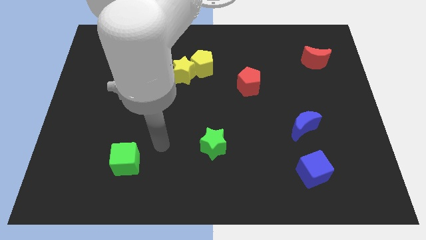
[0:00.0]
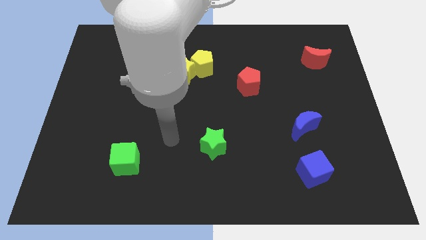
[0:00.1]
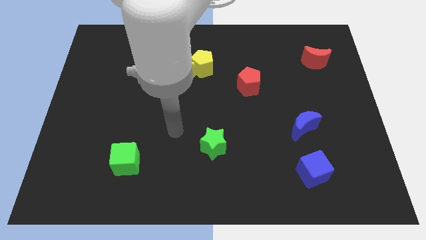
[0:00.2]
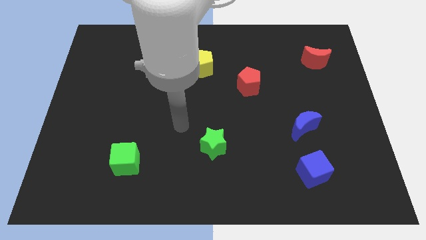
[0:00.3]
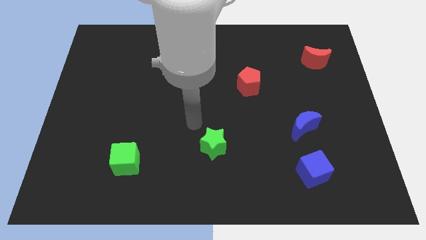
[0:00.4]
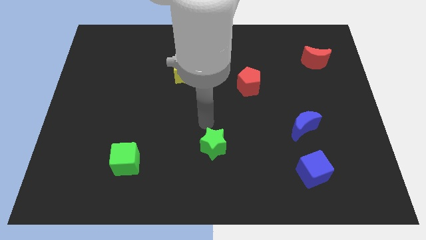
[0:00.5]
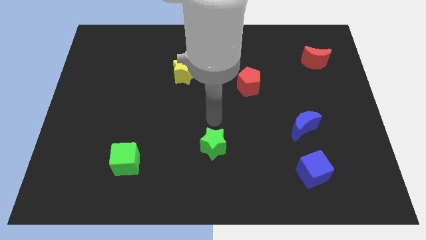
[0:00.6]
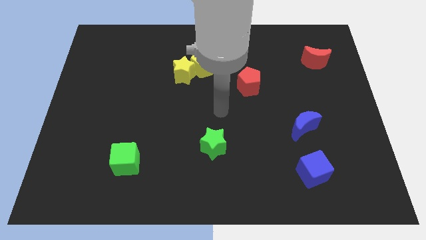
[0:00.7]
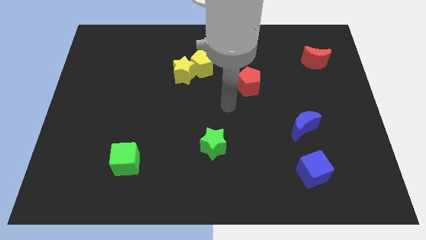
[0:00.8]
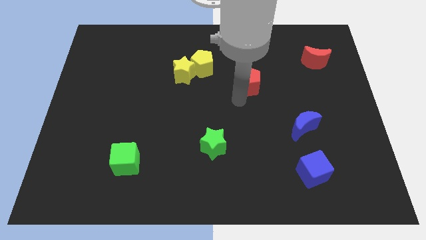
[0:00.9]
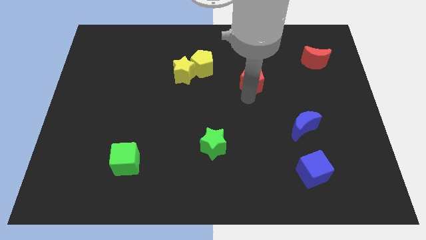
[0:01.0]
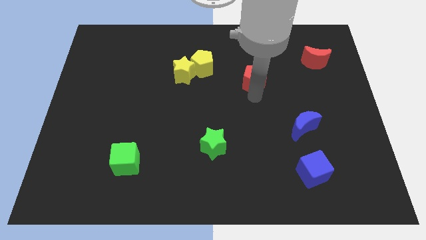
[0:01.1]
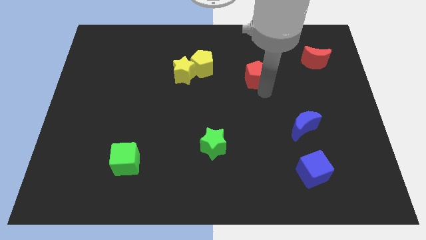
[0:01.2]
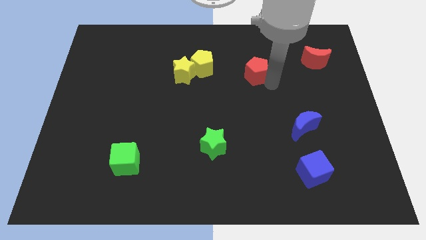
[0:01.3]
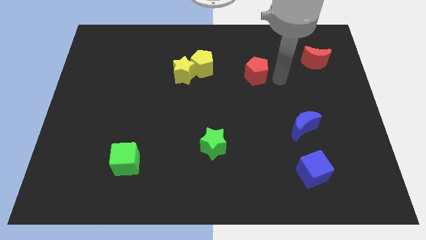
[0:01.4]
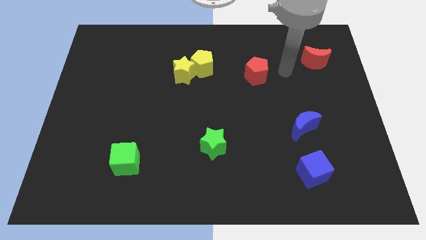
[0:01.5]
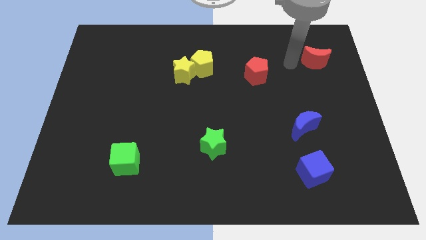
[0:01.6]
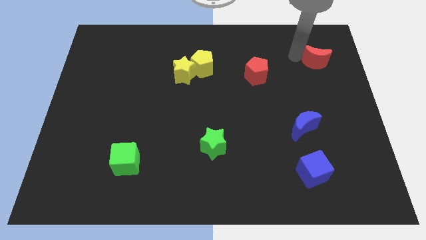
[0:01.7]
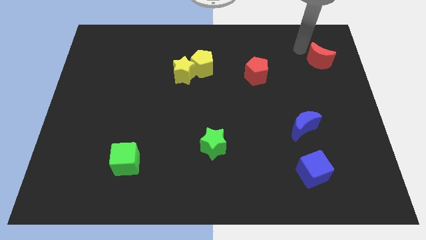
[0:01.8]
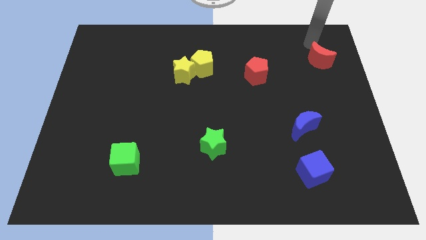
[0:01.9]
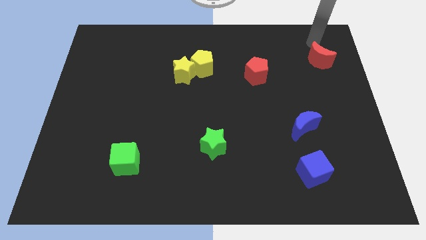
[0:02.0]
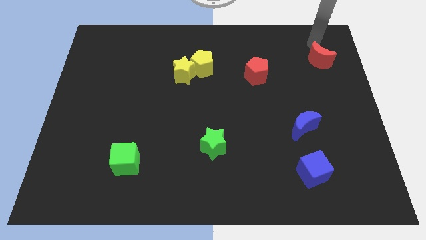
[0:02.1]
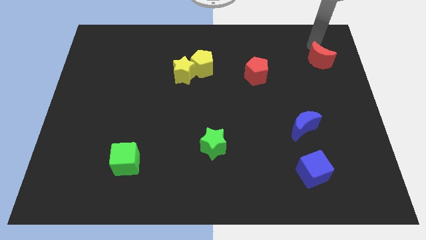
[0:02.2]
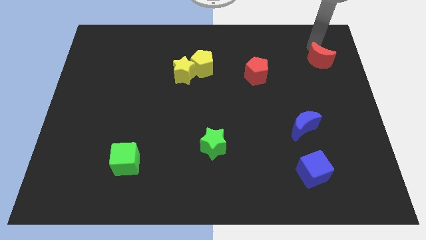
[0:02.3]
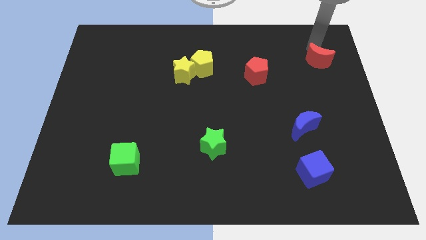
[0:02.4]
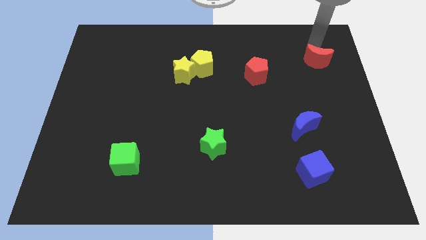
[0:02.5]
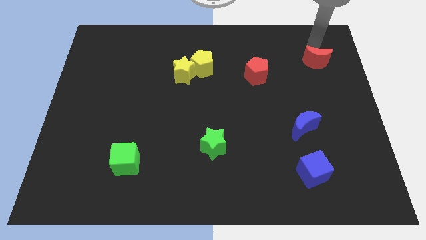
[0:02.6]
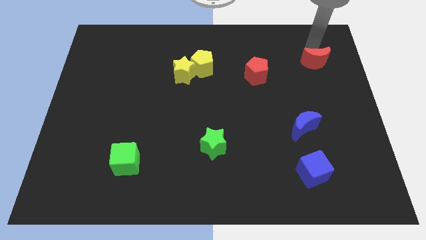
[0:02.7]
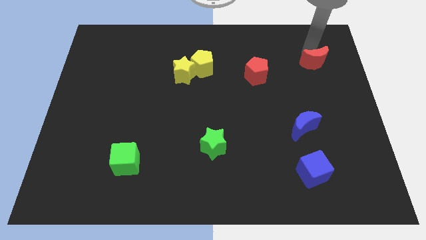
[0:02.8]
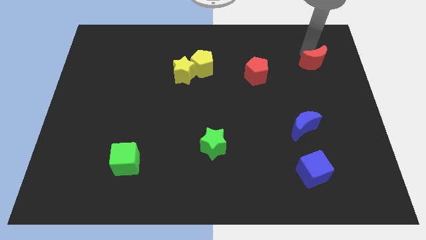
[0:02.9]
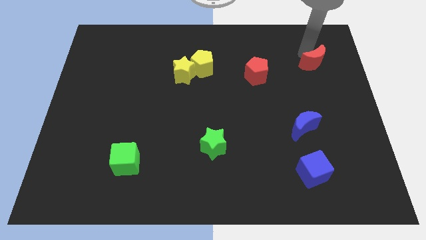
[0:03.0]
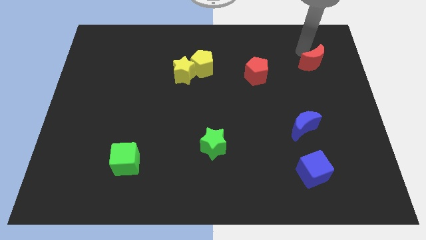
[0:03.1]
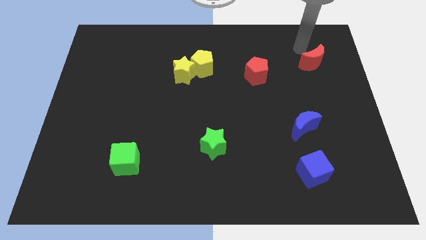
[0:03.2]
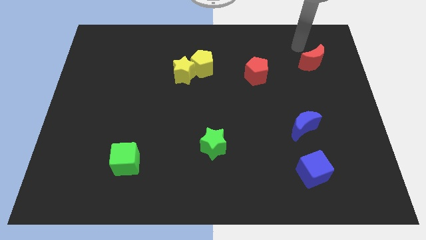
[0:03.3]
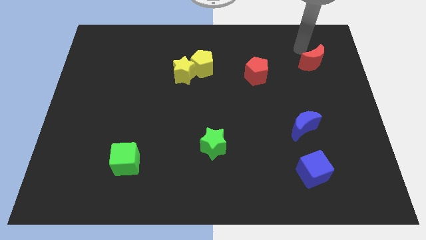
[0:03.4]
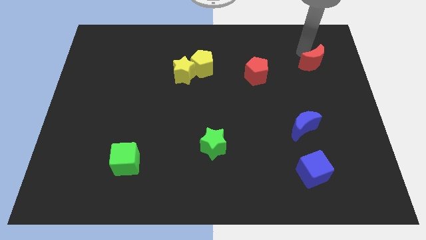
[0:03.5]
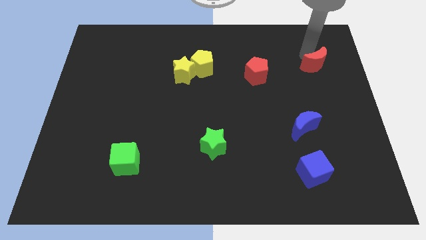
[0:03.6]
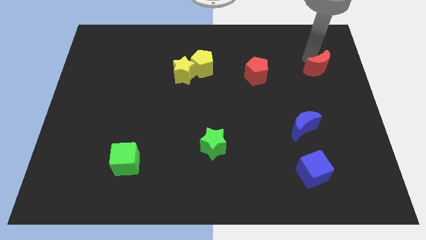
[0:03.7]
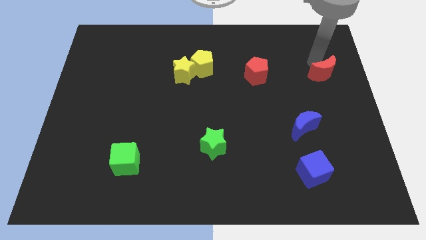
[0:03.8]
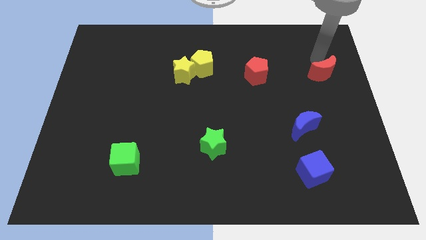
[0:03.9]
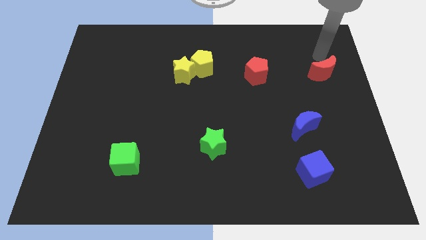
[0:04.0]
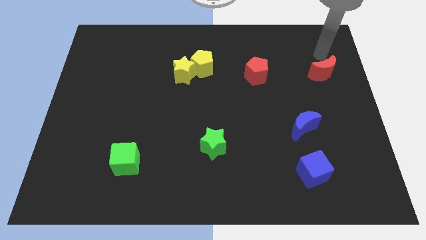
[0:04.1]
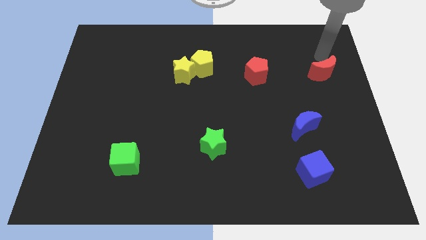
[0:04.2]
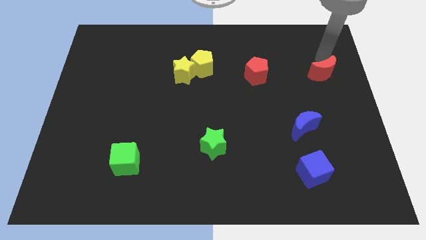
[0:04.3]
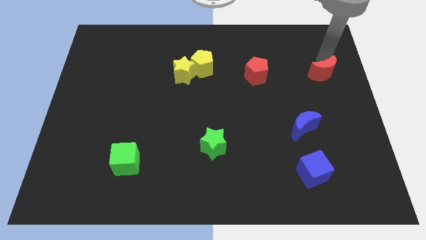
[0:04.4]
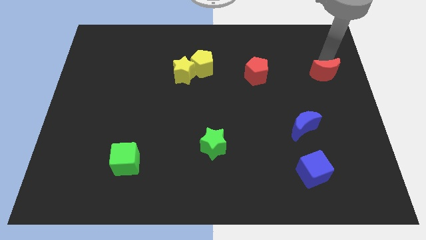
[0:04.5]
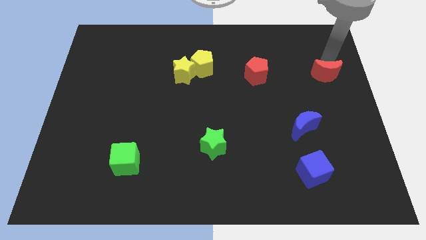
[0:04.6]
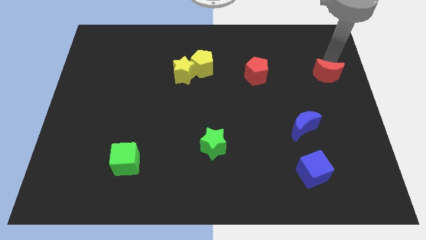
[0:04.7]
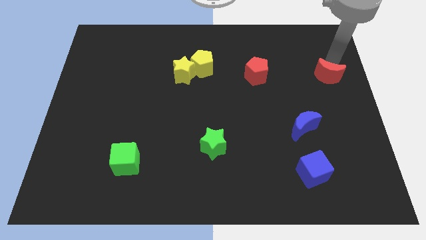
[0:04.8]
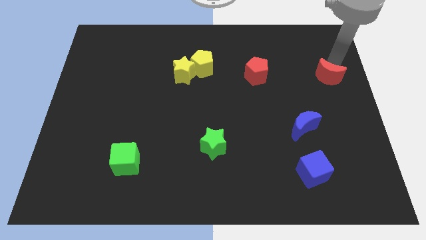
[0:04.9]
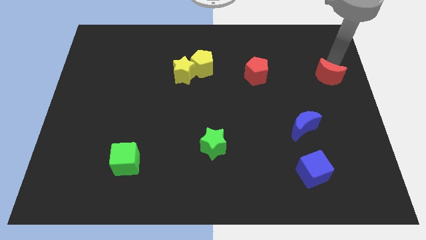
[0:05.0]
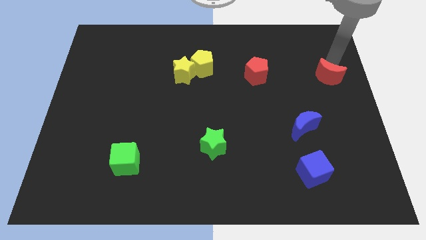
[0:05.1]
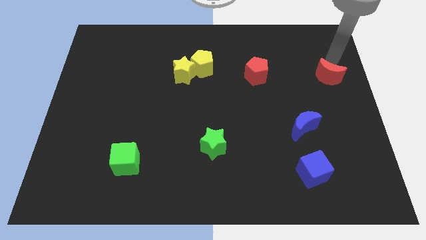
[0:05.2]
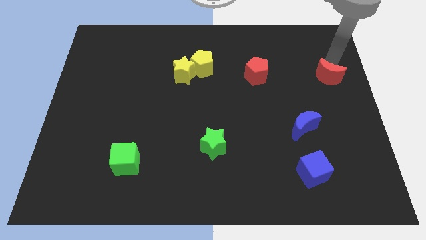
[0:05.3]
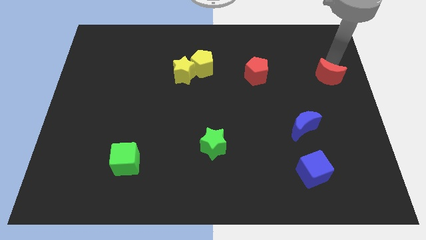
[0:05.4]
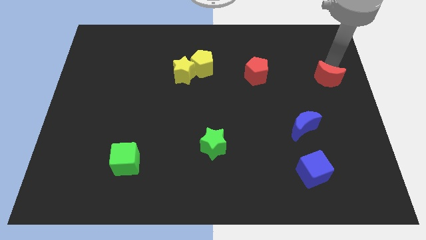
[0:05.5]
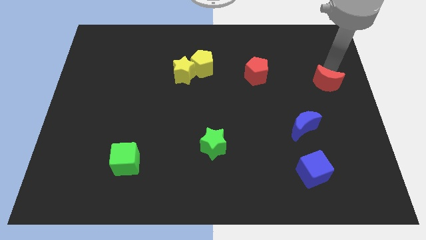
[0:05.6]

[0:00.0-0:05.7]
slightly push the red moon down

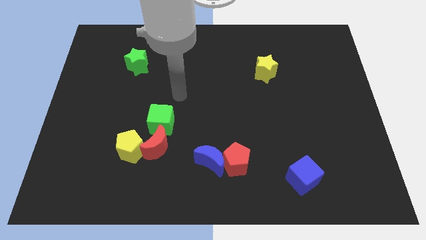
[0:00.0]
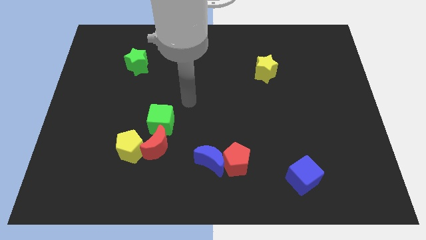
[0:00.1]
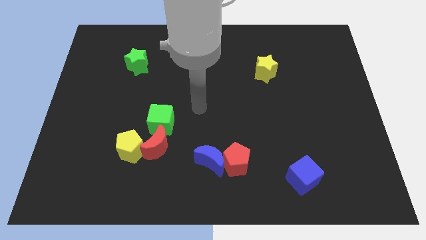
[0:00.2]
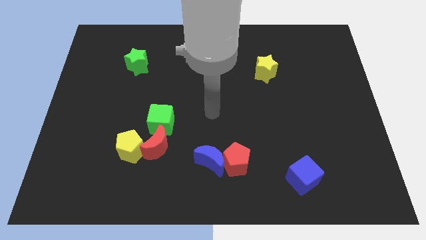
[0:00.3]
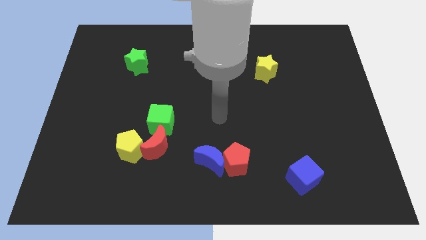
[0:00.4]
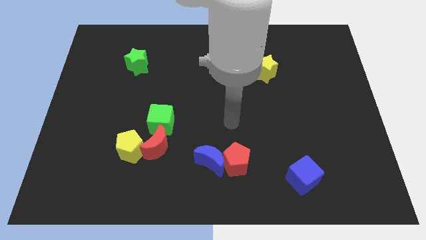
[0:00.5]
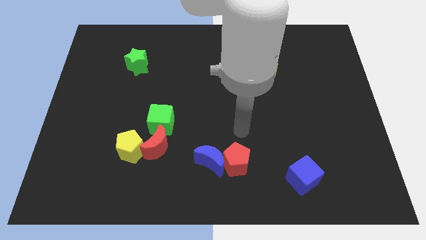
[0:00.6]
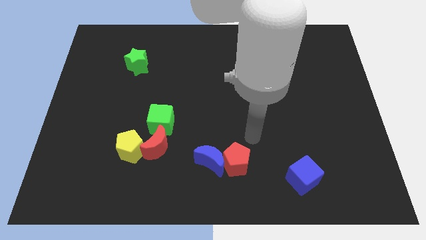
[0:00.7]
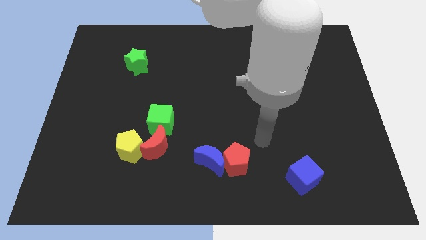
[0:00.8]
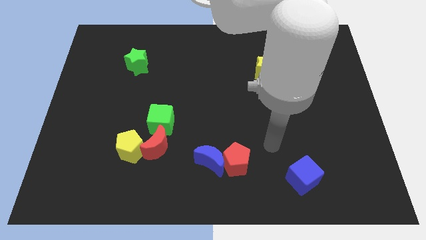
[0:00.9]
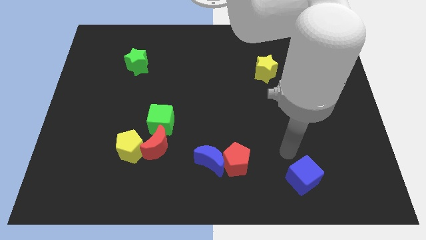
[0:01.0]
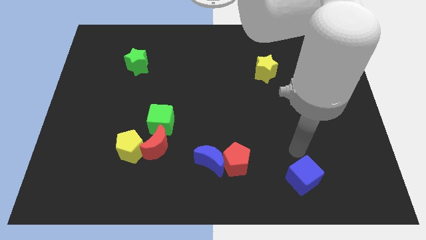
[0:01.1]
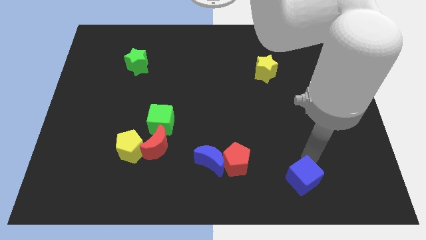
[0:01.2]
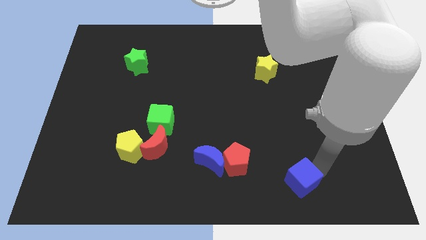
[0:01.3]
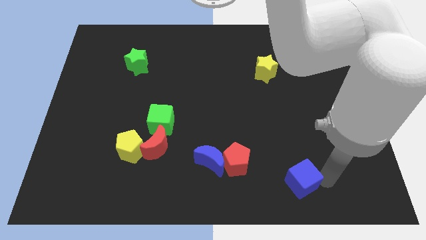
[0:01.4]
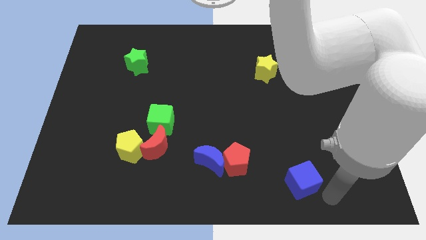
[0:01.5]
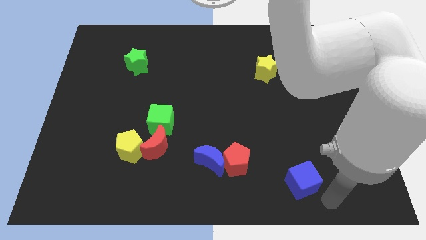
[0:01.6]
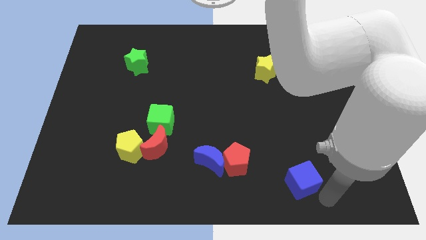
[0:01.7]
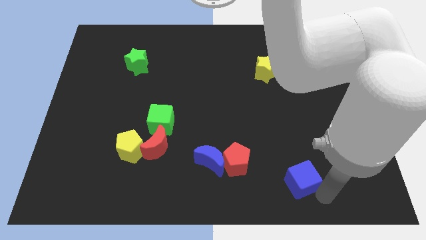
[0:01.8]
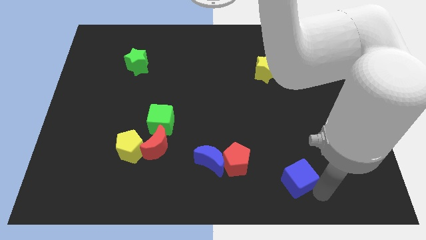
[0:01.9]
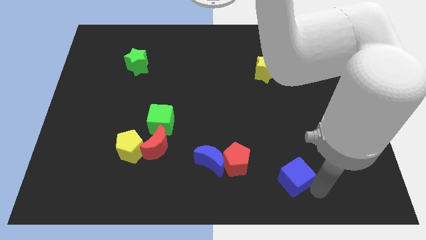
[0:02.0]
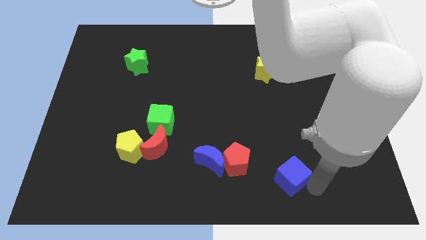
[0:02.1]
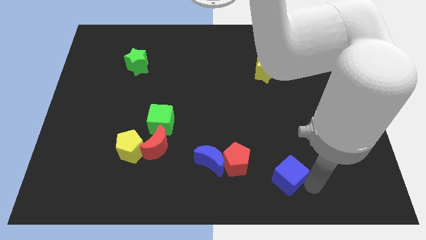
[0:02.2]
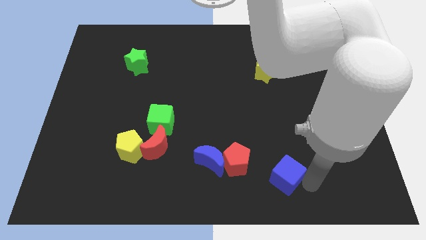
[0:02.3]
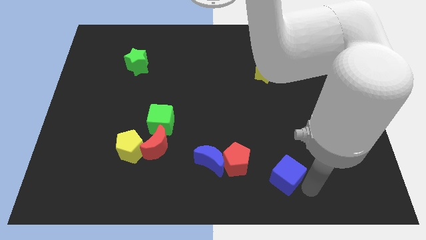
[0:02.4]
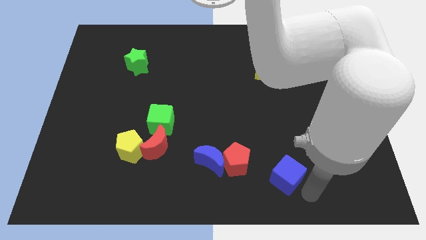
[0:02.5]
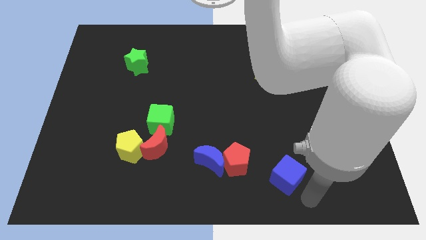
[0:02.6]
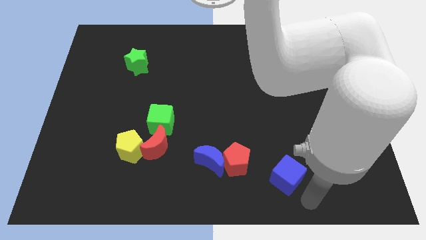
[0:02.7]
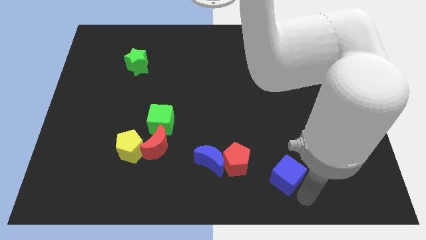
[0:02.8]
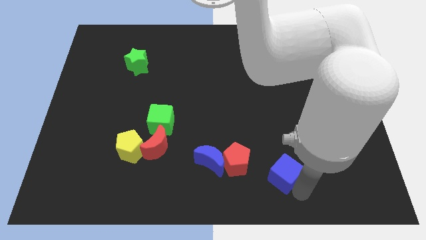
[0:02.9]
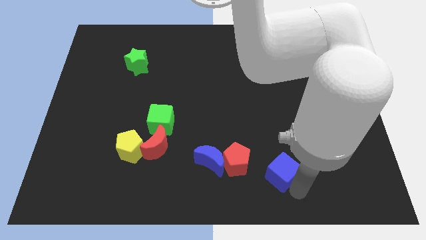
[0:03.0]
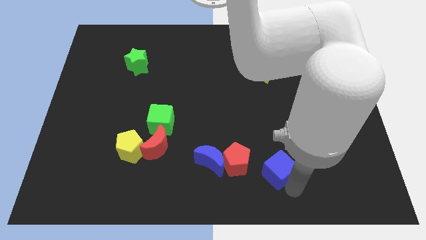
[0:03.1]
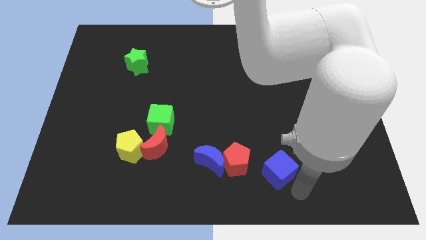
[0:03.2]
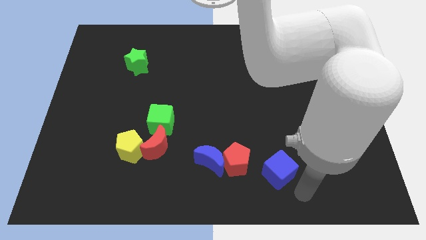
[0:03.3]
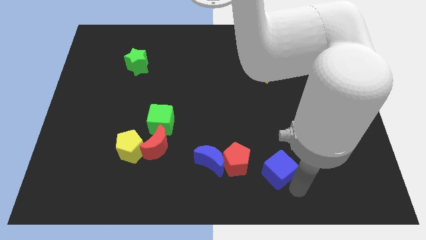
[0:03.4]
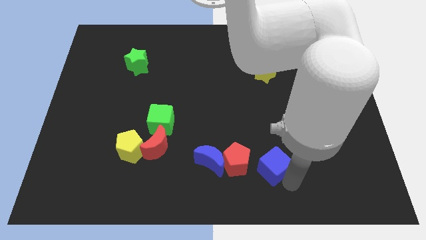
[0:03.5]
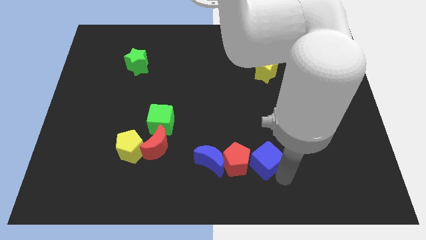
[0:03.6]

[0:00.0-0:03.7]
slide the blue cube a bit upwards and to the left diagonally
